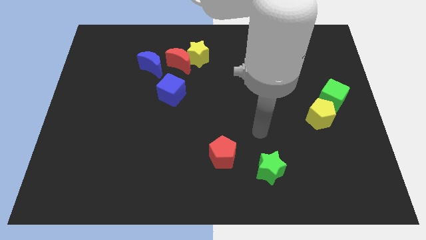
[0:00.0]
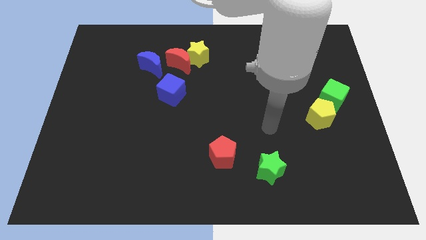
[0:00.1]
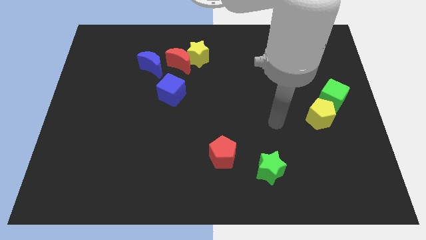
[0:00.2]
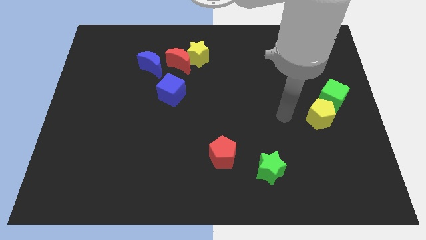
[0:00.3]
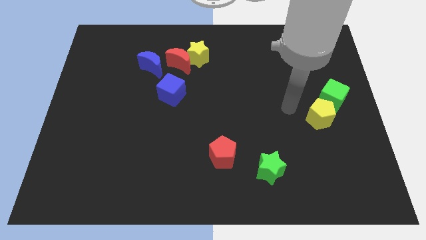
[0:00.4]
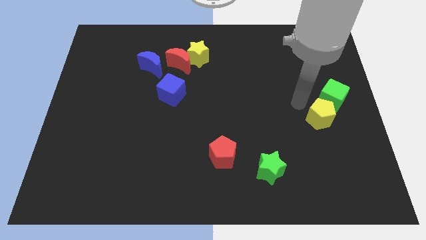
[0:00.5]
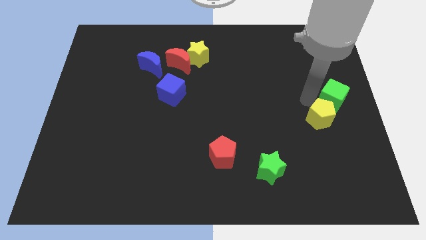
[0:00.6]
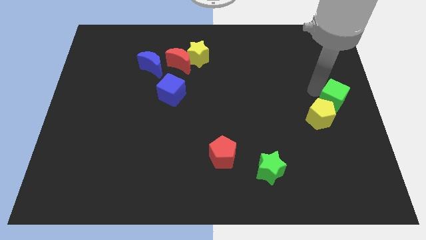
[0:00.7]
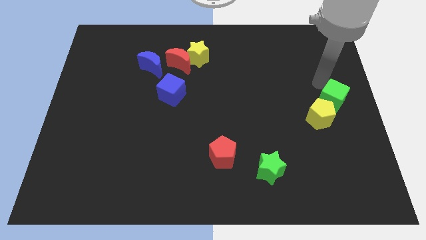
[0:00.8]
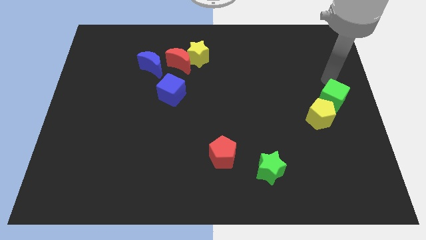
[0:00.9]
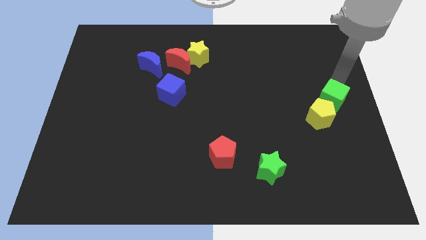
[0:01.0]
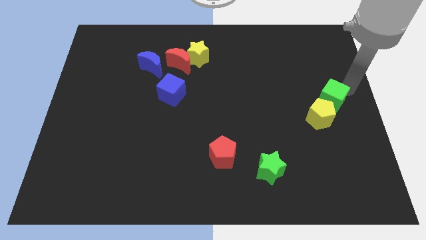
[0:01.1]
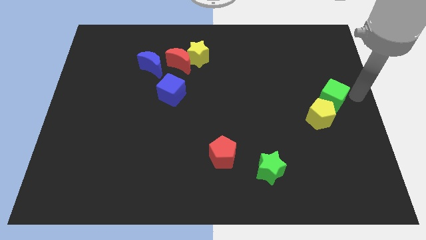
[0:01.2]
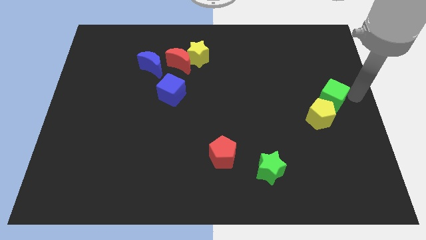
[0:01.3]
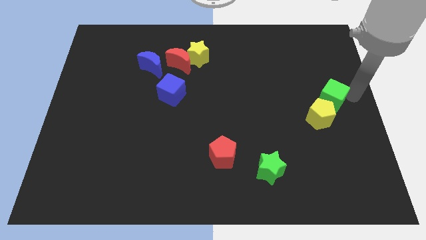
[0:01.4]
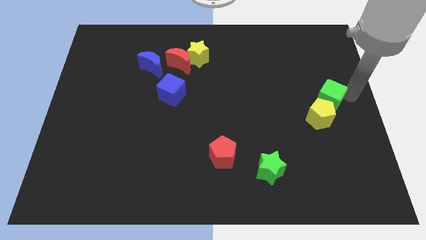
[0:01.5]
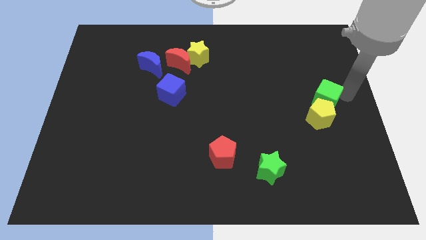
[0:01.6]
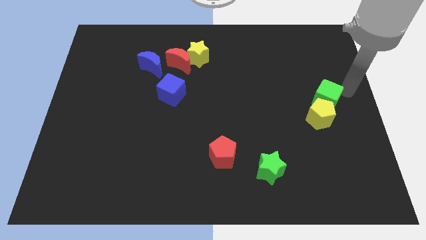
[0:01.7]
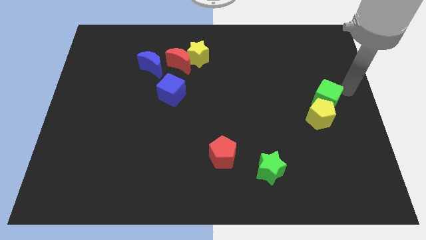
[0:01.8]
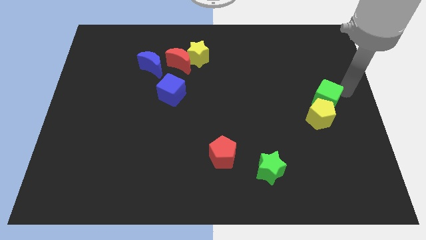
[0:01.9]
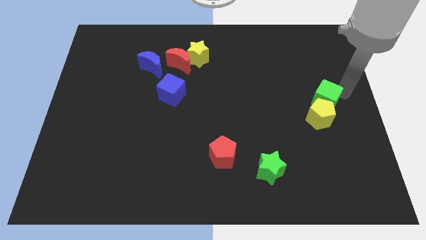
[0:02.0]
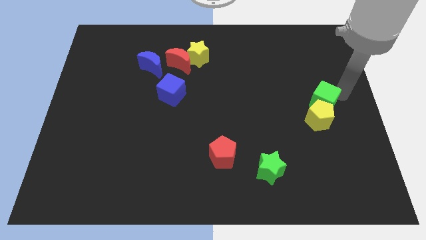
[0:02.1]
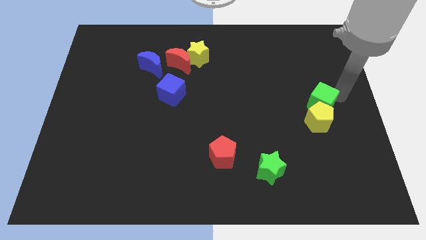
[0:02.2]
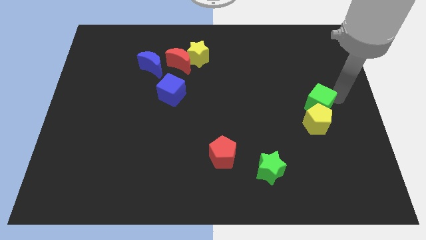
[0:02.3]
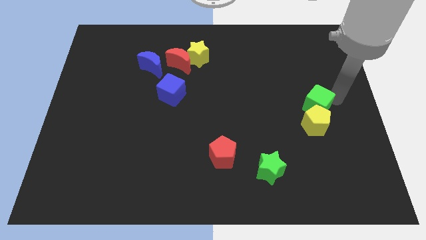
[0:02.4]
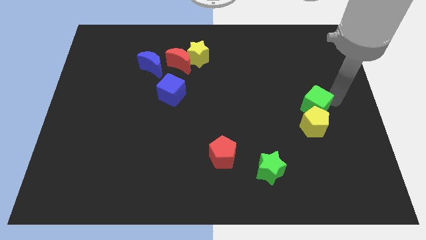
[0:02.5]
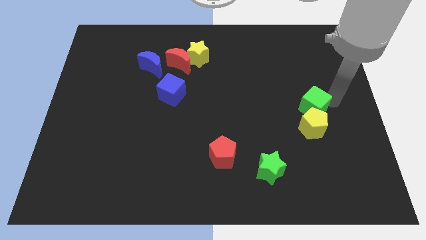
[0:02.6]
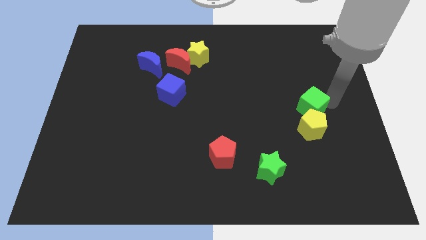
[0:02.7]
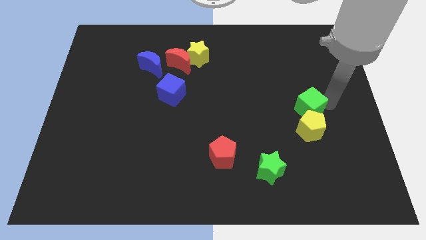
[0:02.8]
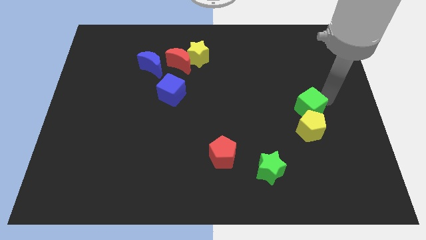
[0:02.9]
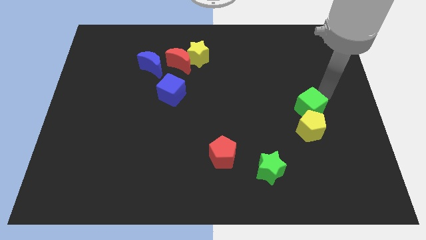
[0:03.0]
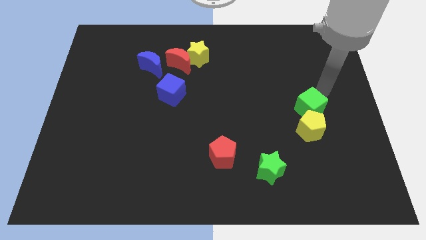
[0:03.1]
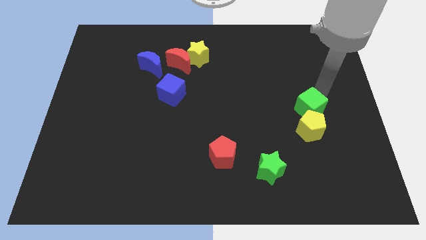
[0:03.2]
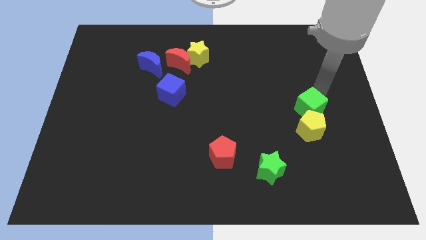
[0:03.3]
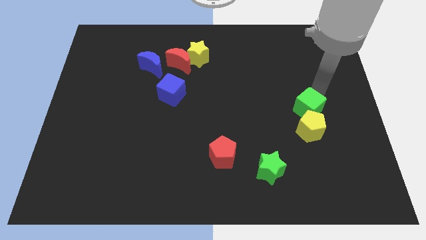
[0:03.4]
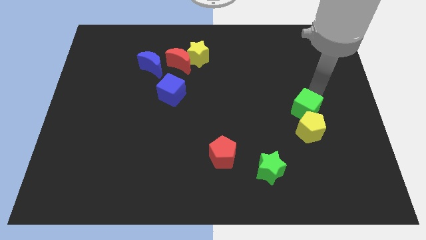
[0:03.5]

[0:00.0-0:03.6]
slightly move the green cube downwards and left diagonally

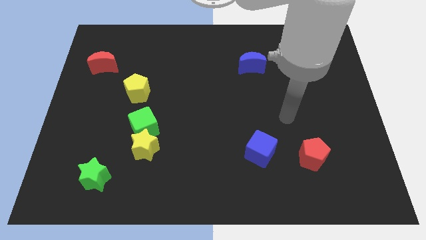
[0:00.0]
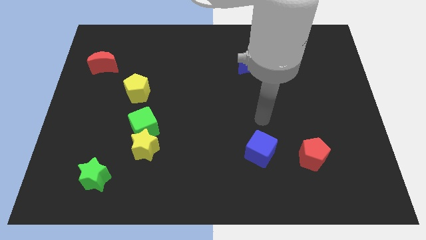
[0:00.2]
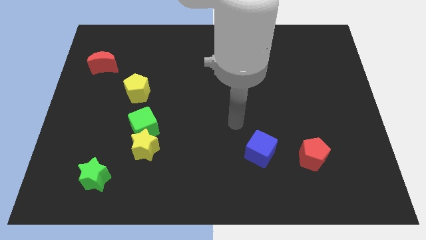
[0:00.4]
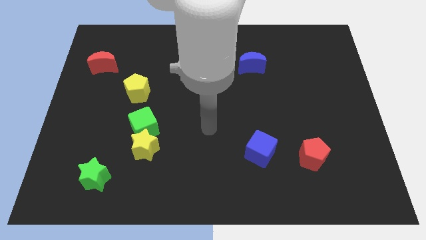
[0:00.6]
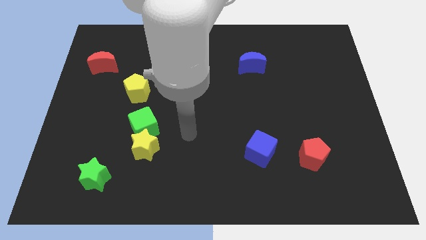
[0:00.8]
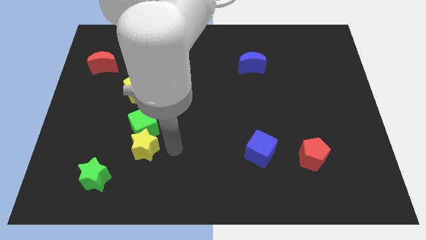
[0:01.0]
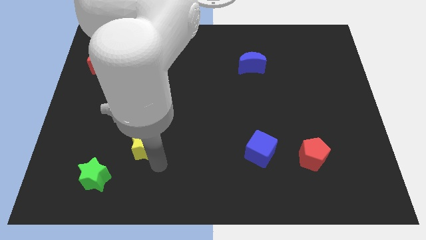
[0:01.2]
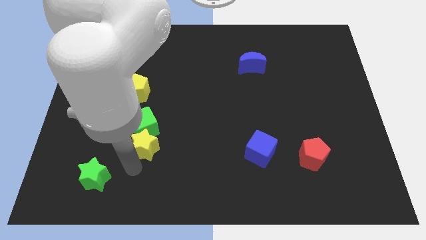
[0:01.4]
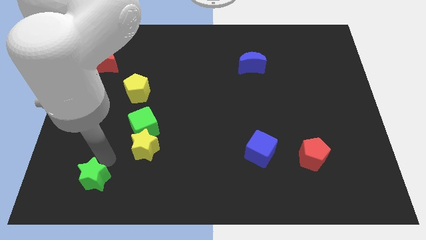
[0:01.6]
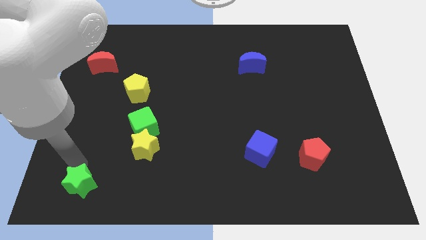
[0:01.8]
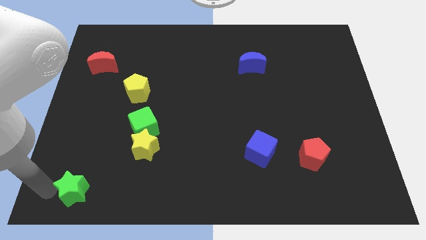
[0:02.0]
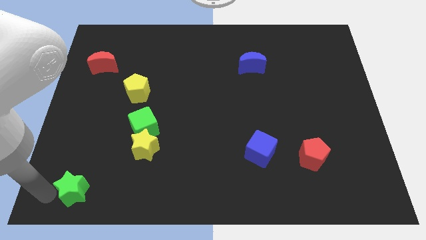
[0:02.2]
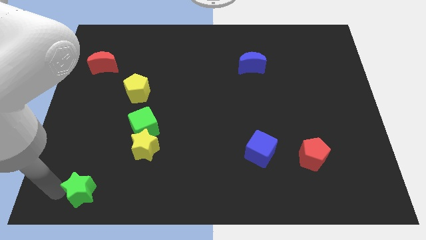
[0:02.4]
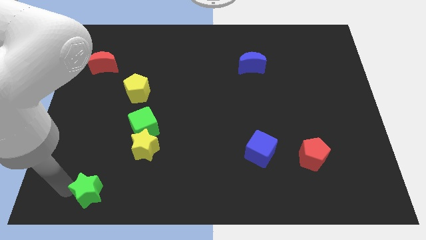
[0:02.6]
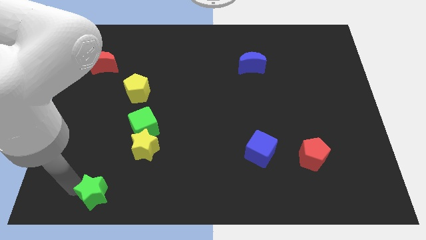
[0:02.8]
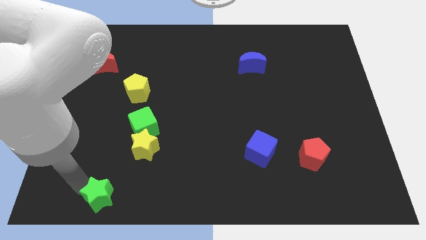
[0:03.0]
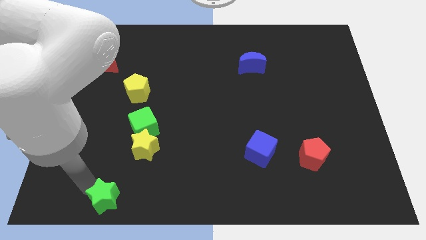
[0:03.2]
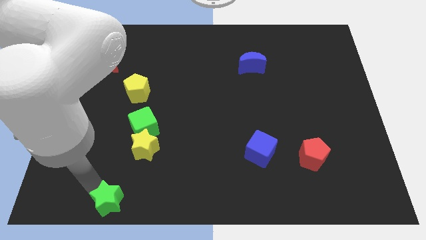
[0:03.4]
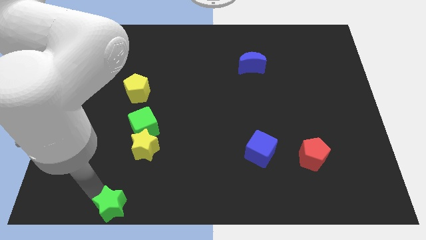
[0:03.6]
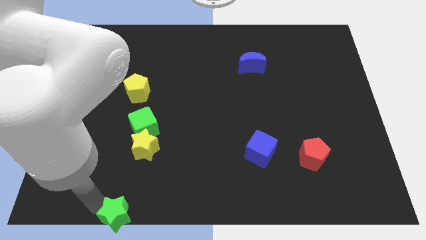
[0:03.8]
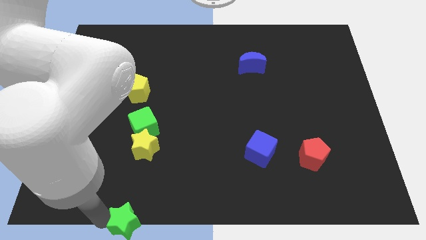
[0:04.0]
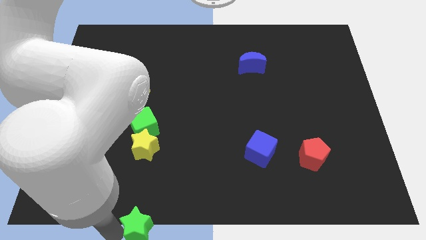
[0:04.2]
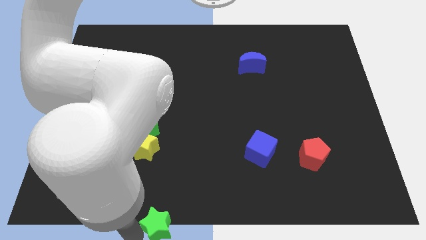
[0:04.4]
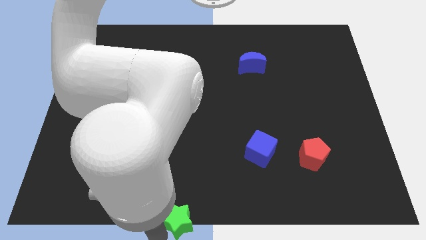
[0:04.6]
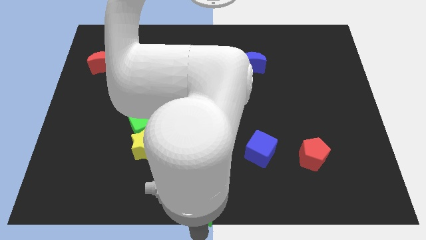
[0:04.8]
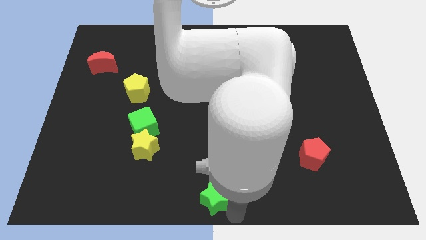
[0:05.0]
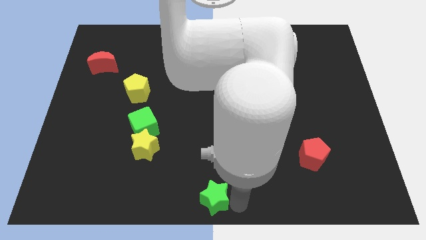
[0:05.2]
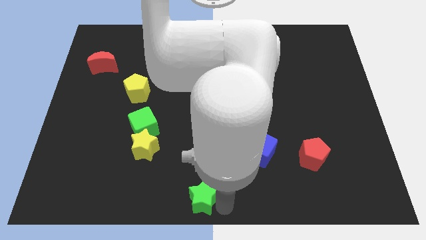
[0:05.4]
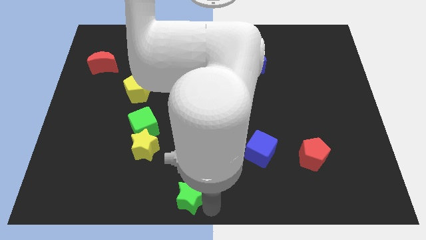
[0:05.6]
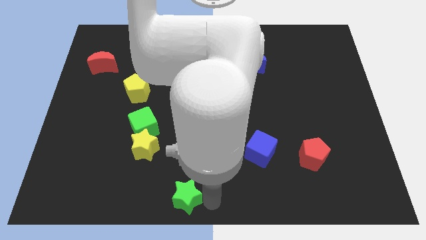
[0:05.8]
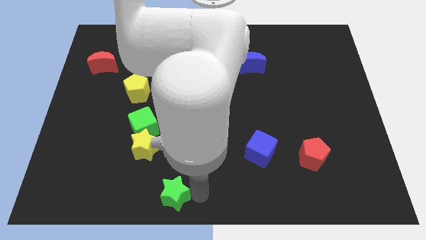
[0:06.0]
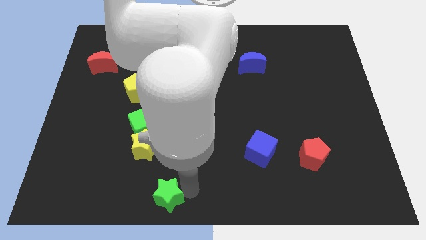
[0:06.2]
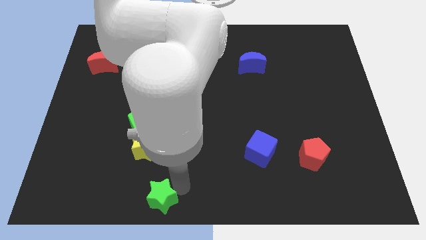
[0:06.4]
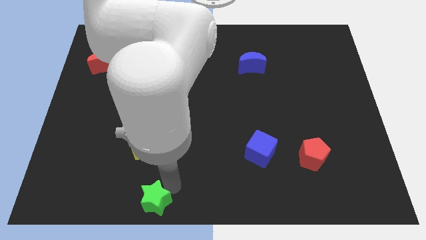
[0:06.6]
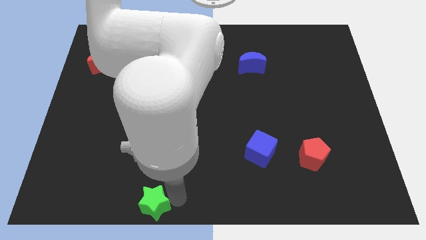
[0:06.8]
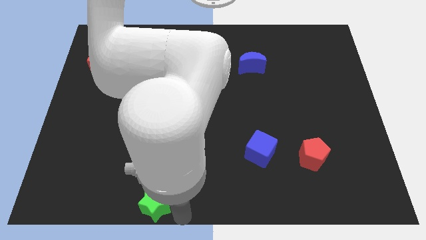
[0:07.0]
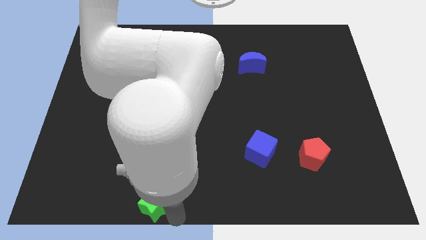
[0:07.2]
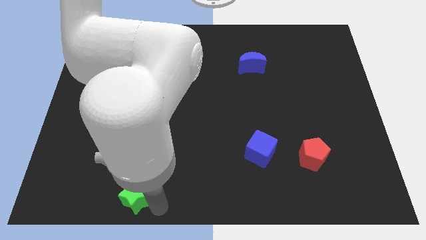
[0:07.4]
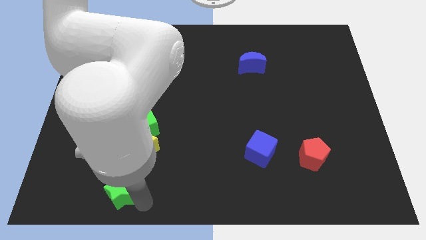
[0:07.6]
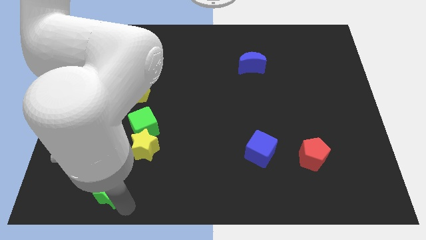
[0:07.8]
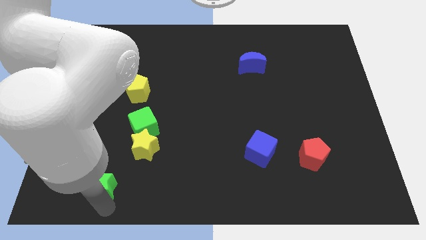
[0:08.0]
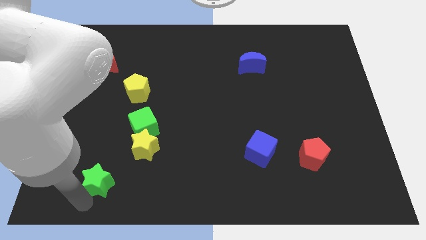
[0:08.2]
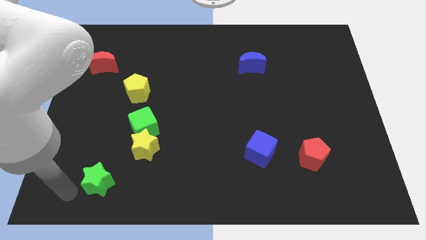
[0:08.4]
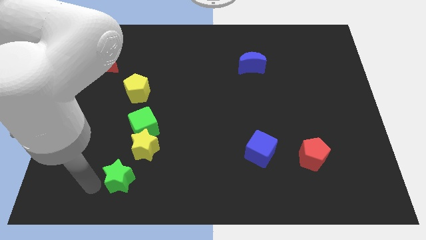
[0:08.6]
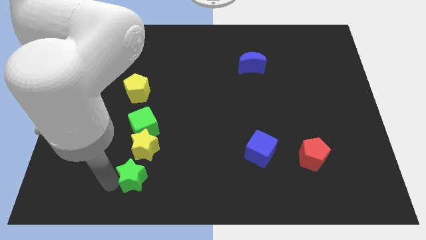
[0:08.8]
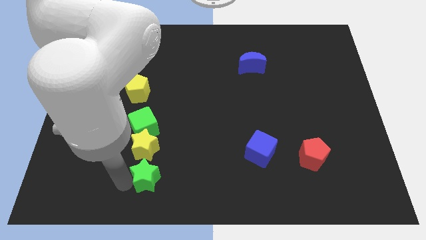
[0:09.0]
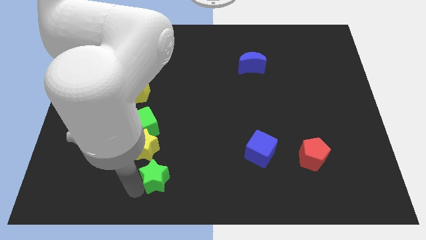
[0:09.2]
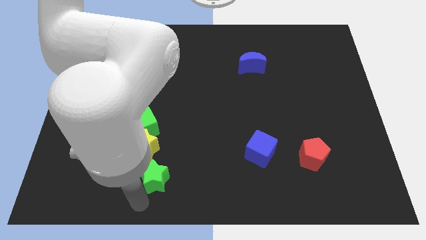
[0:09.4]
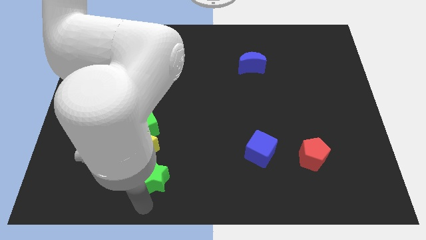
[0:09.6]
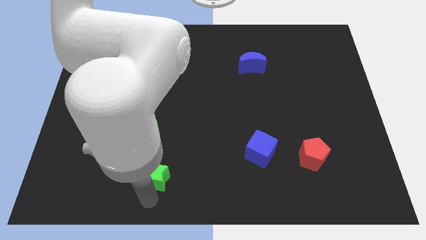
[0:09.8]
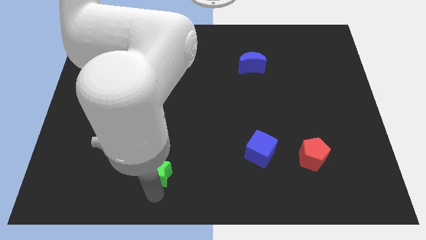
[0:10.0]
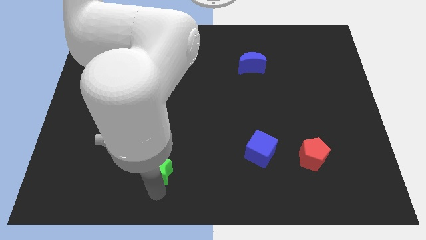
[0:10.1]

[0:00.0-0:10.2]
slide the green star somewhat upwards and right
